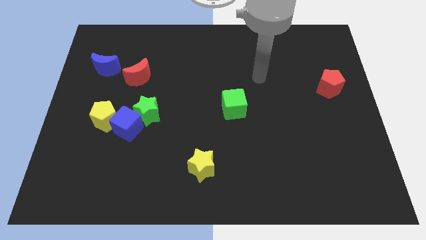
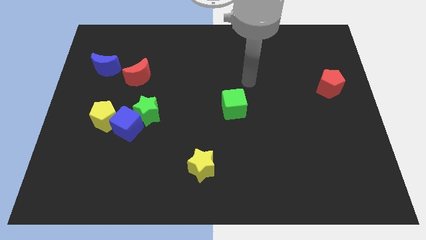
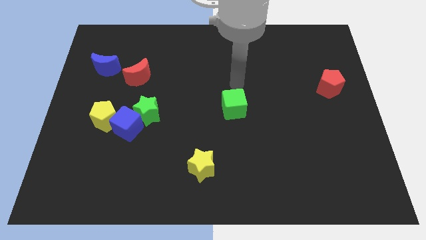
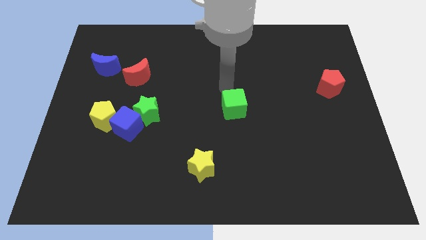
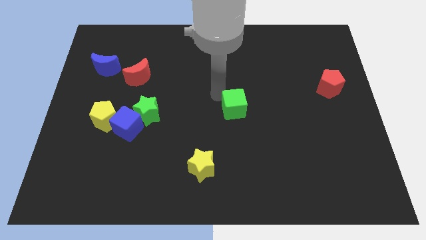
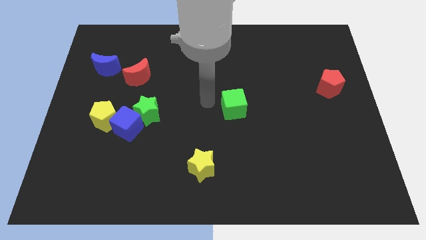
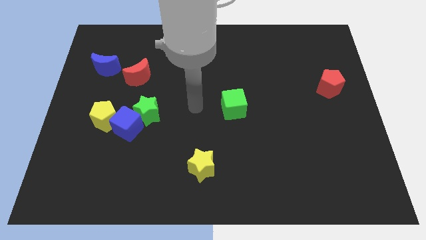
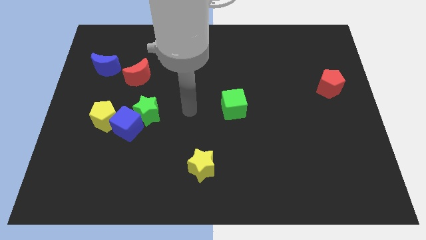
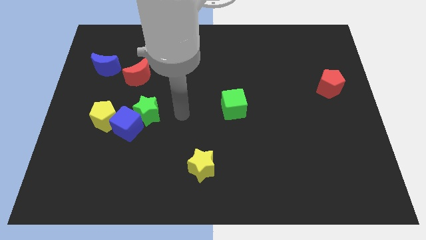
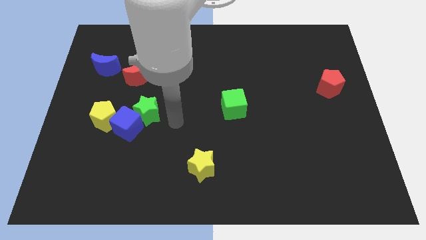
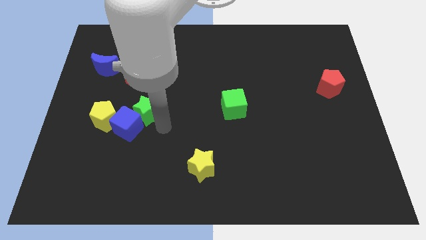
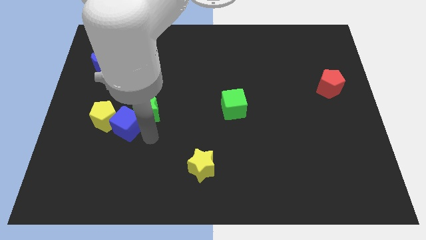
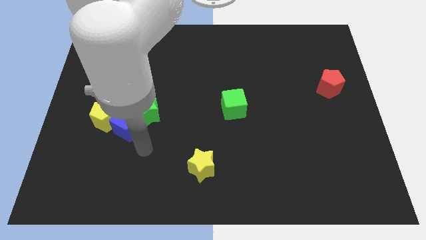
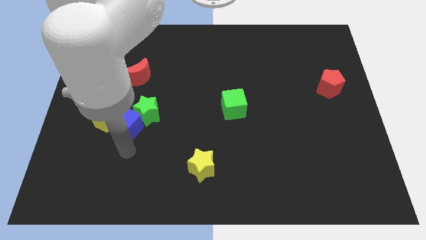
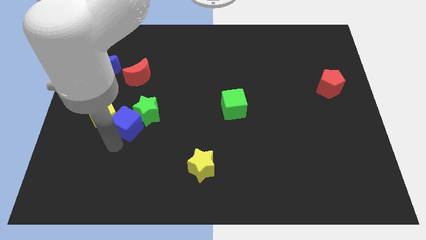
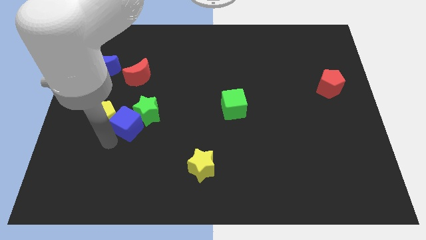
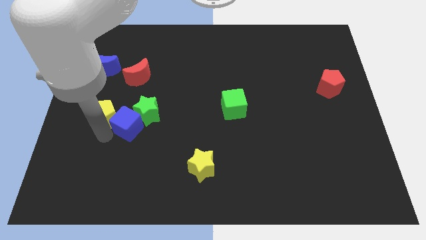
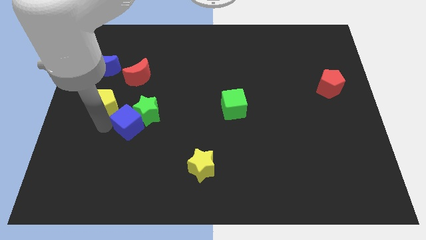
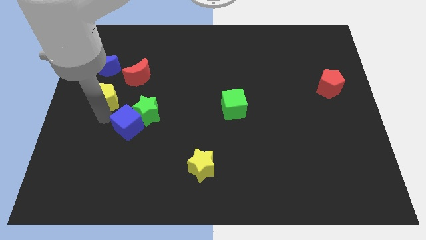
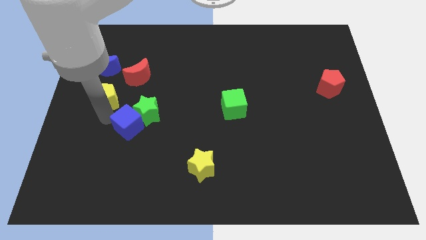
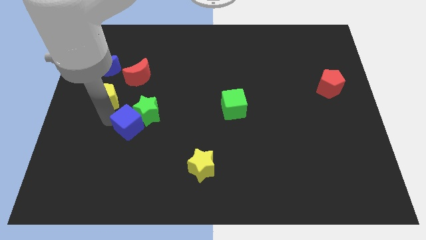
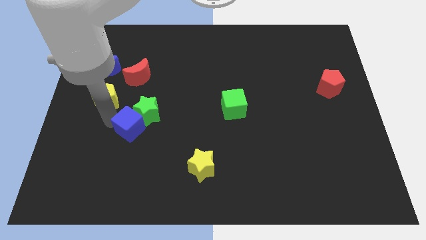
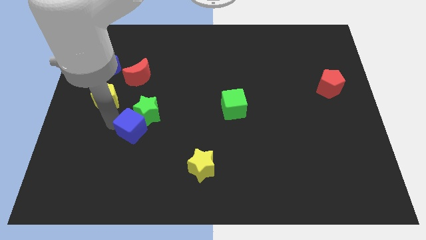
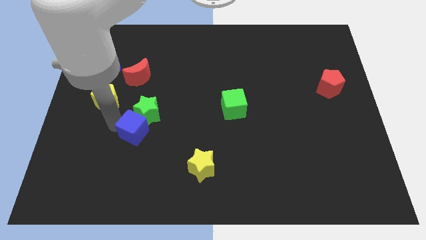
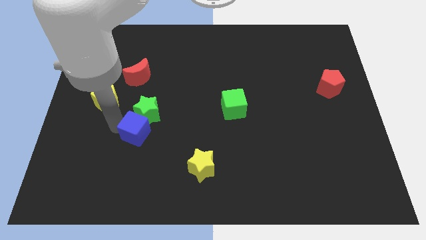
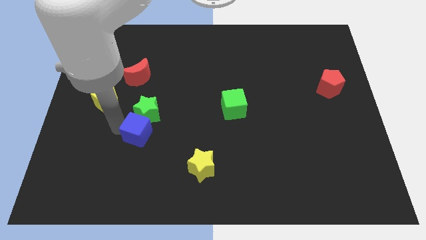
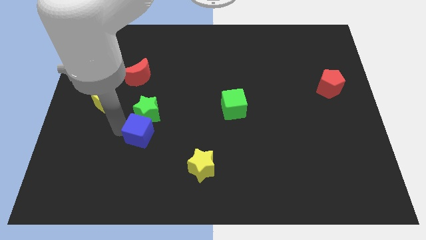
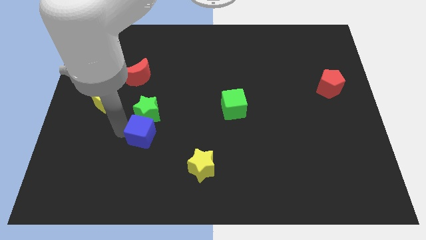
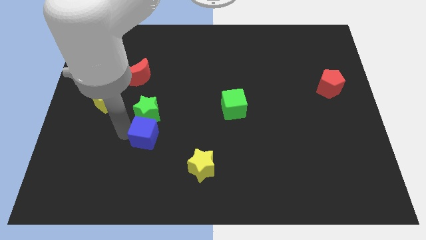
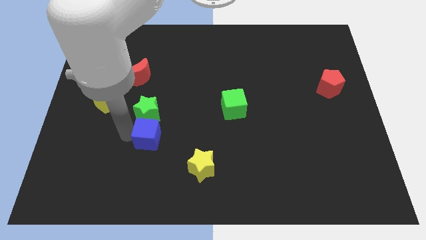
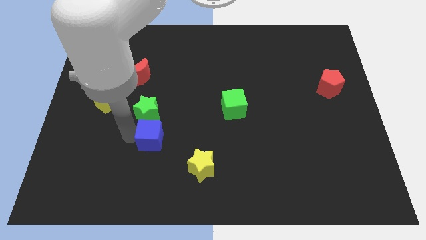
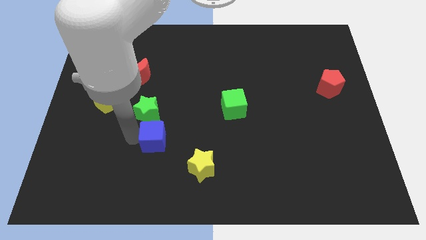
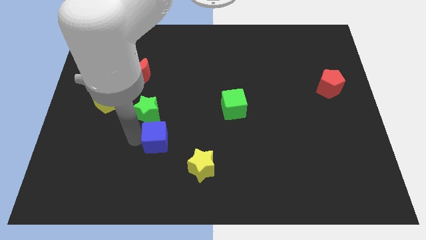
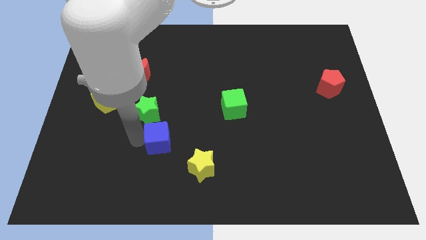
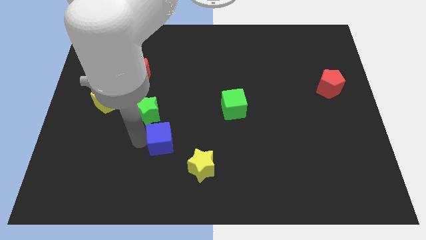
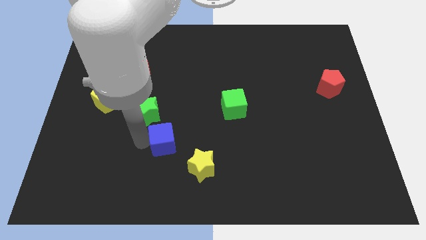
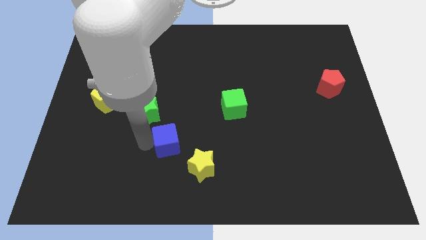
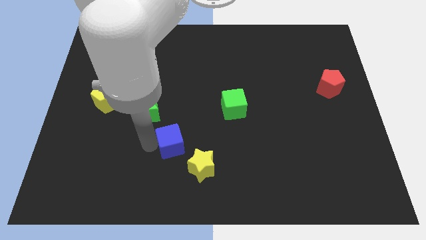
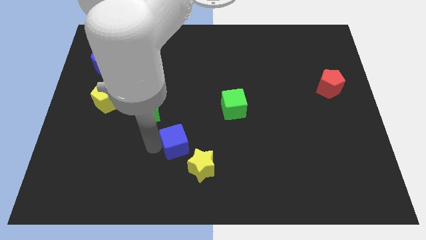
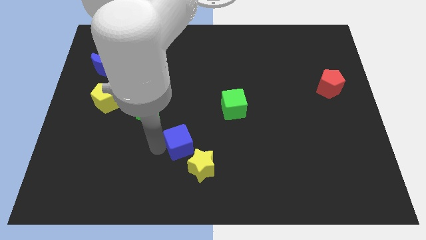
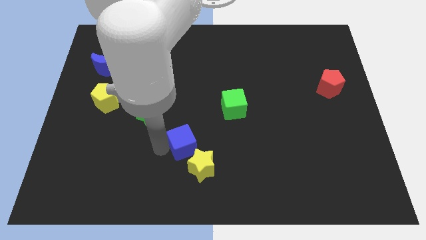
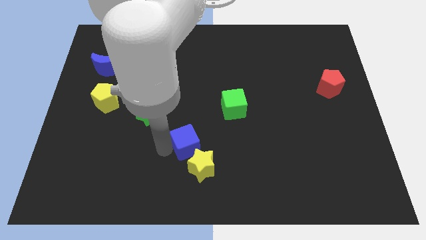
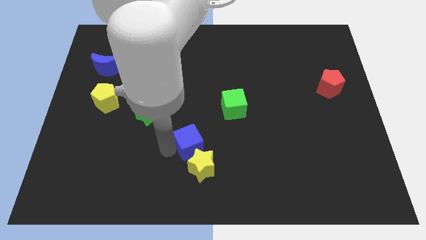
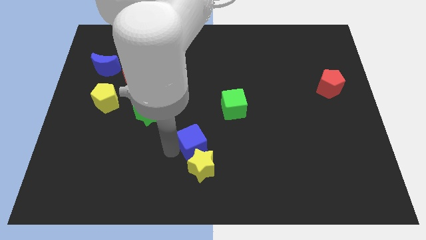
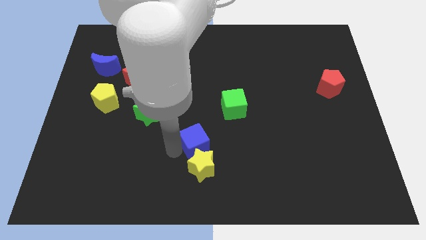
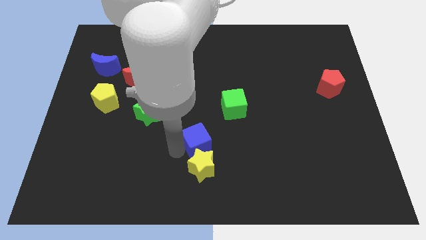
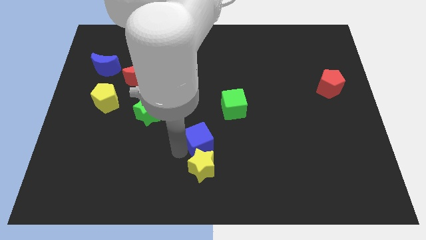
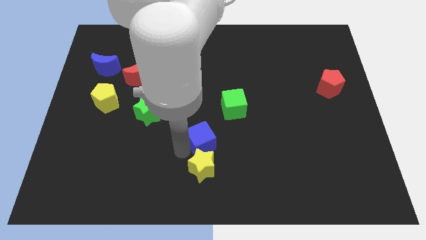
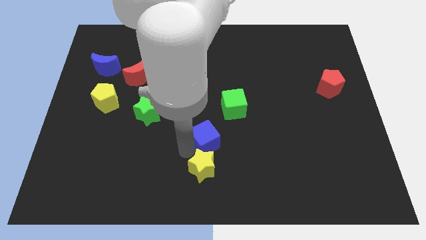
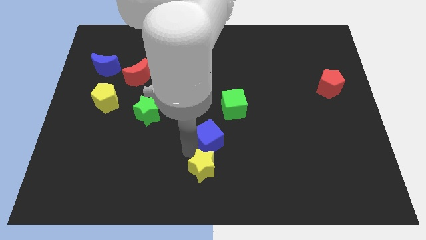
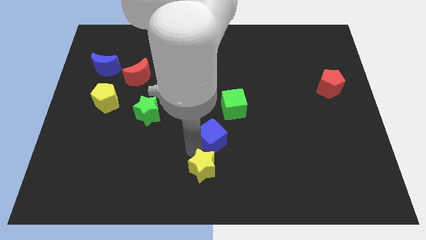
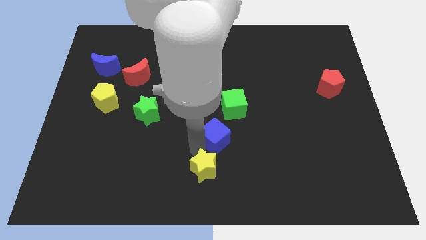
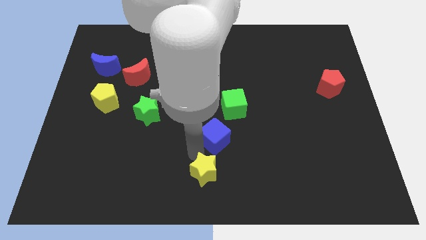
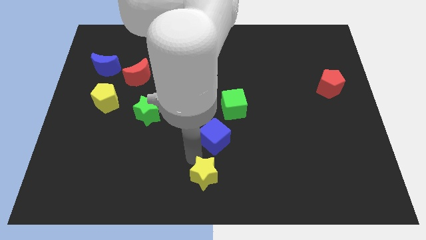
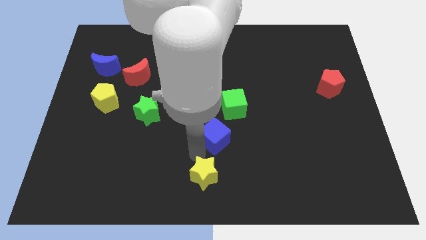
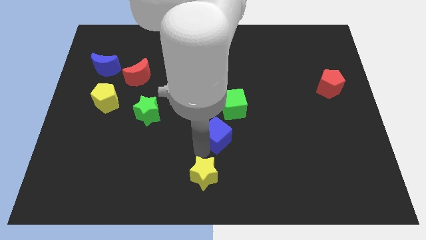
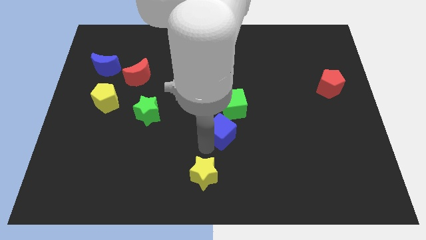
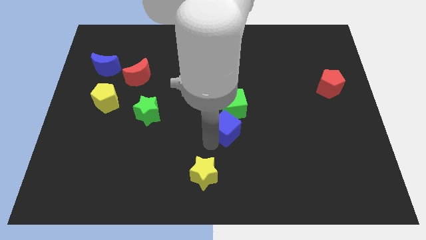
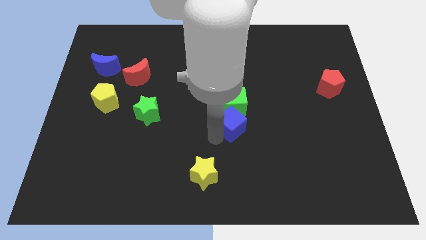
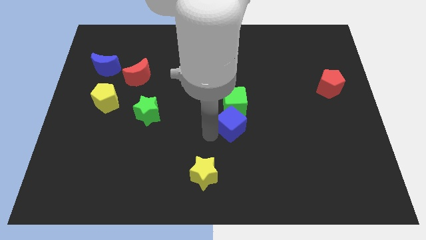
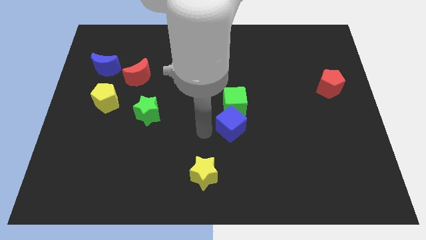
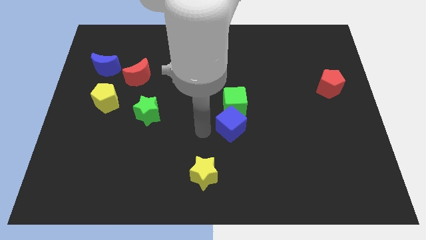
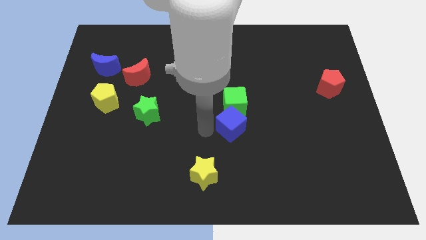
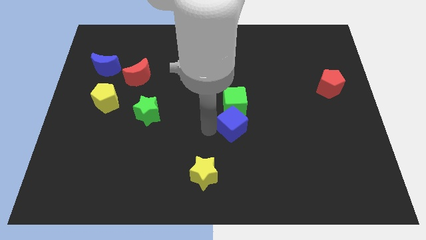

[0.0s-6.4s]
slide the blue cube diagonally down and to the right of the green cube

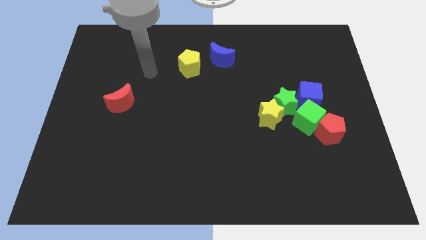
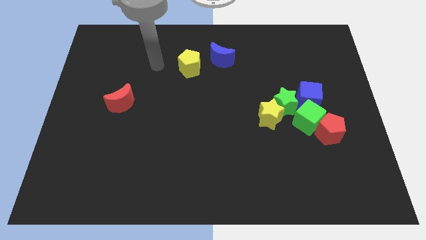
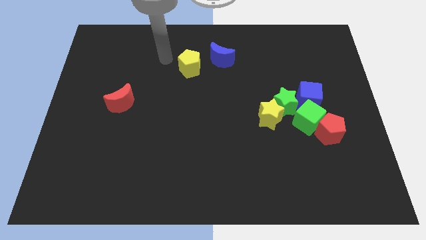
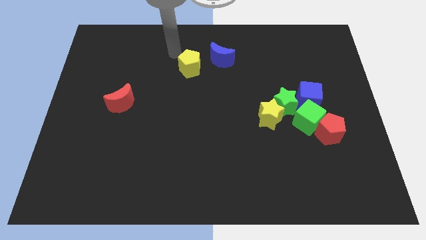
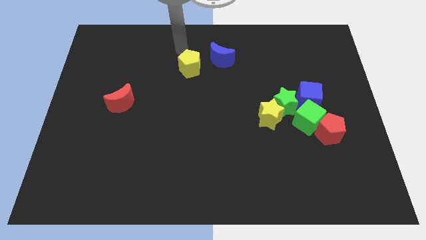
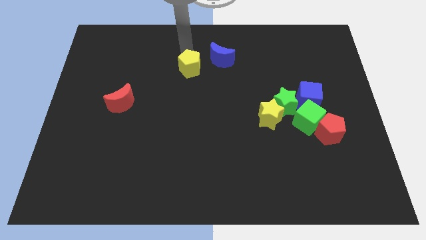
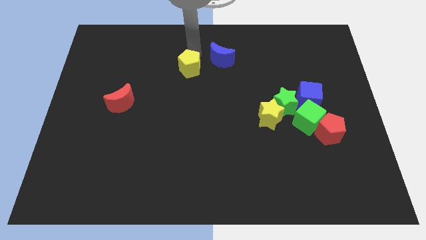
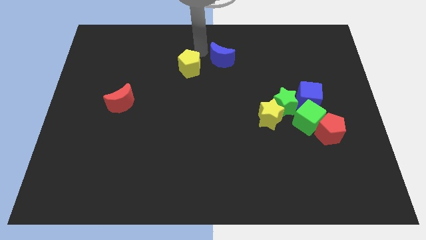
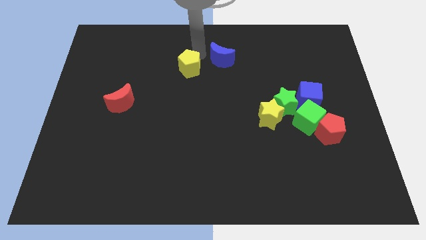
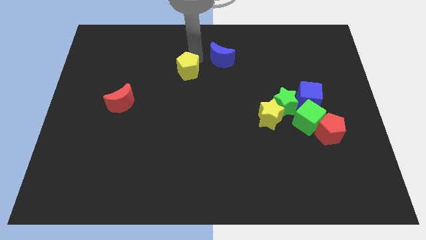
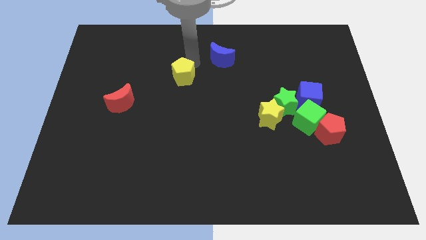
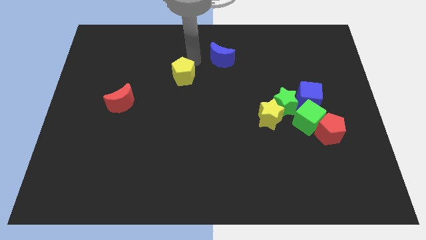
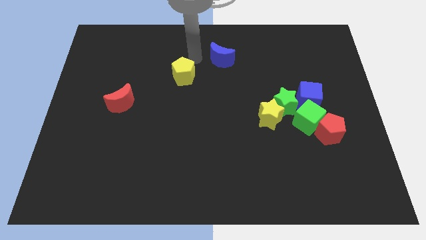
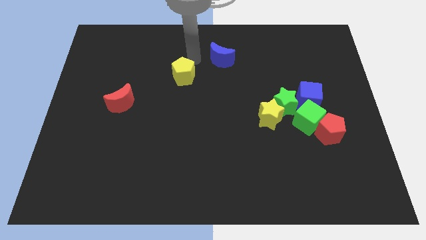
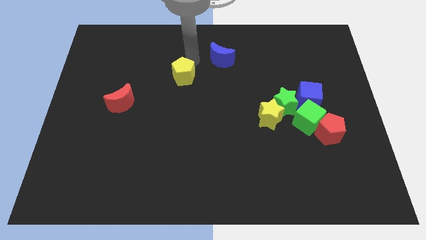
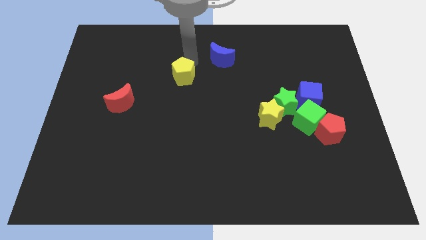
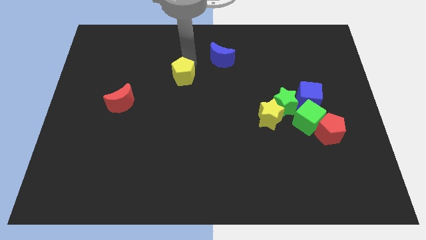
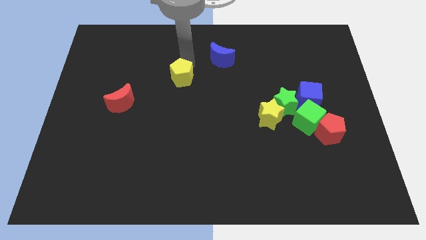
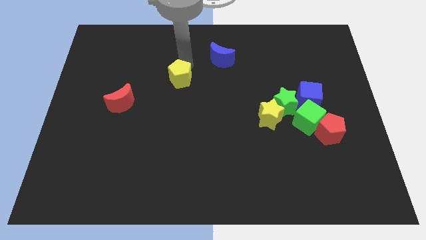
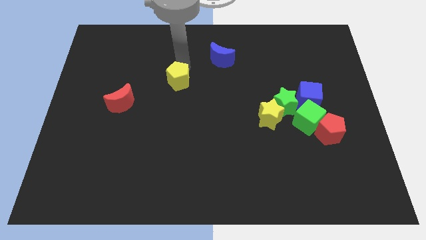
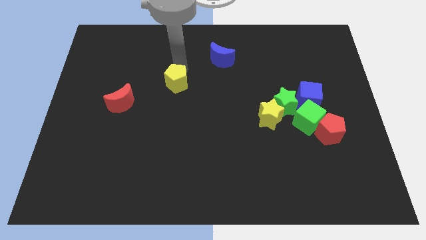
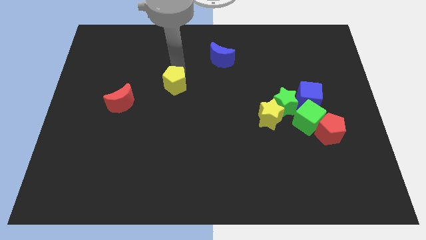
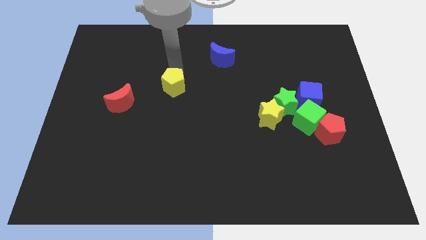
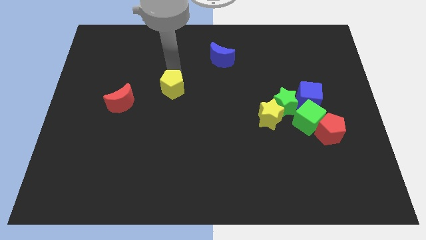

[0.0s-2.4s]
push the yellow pentagon right of the red moon
